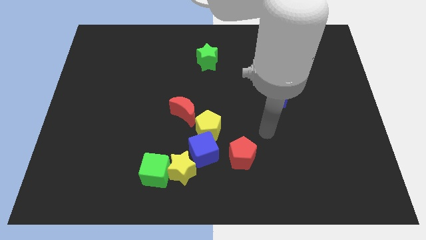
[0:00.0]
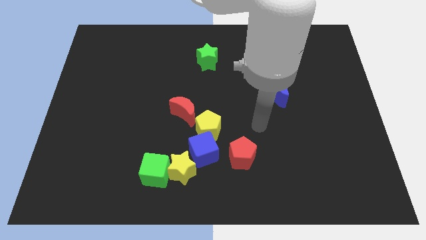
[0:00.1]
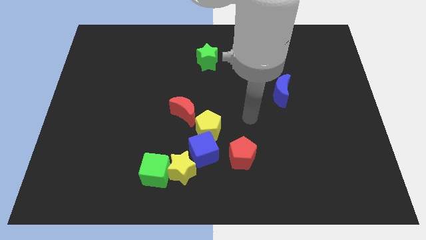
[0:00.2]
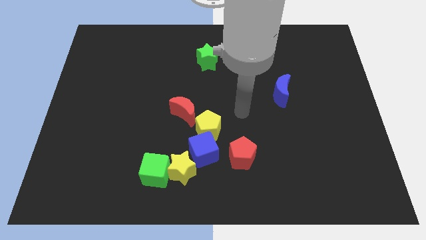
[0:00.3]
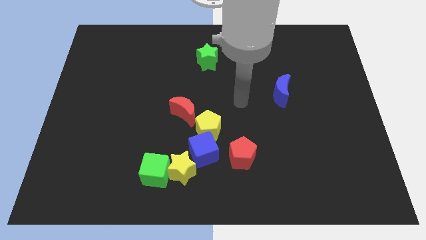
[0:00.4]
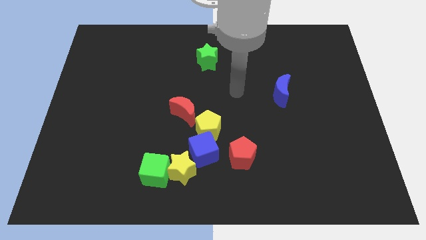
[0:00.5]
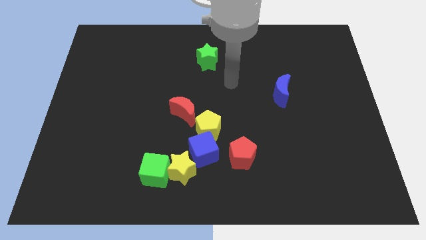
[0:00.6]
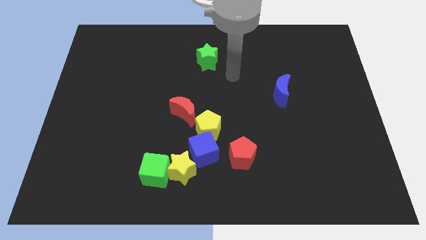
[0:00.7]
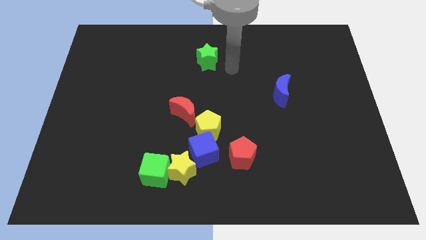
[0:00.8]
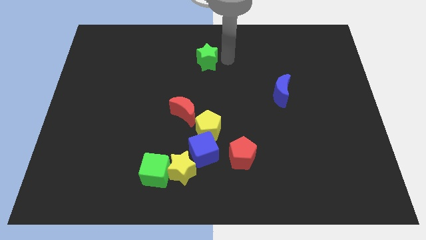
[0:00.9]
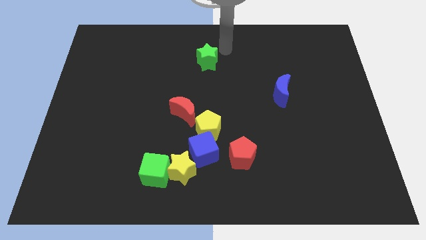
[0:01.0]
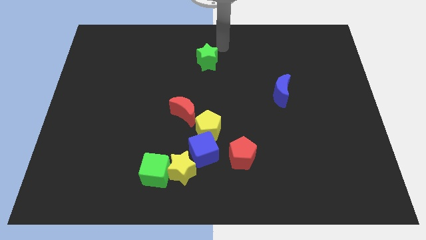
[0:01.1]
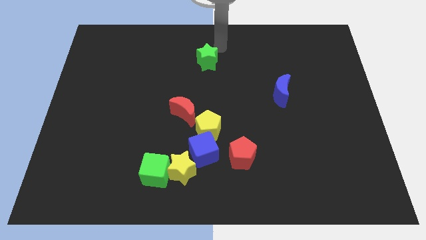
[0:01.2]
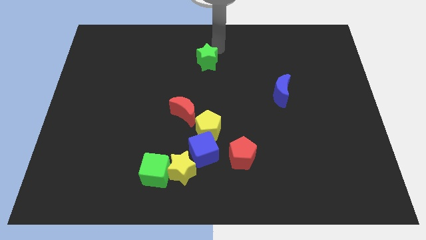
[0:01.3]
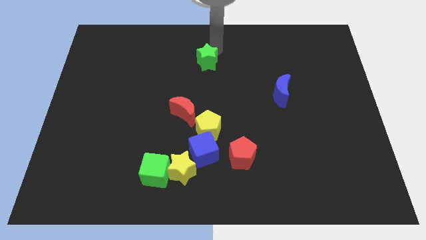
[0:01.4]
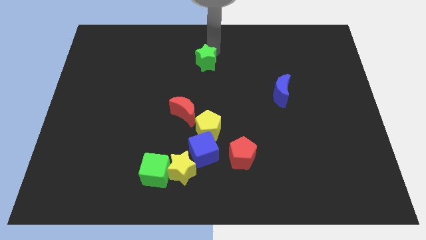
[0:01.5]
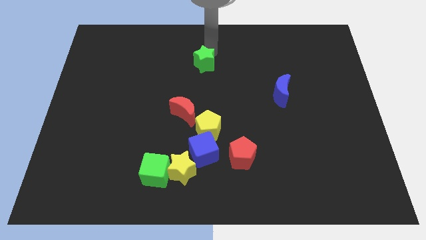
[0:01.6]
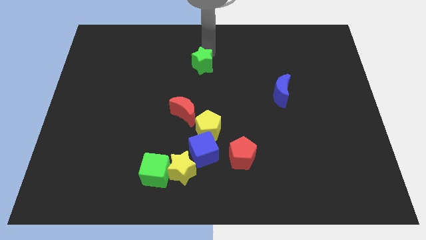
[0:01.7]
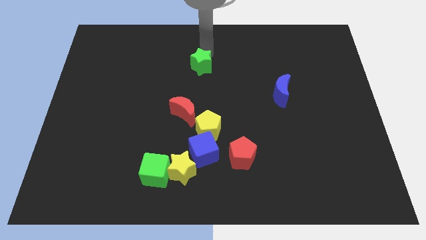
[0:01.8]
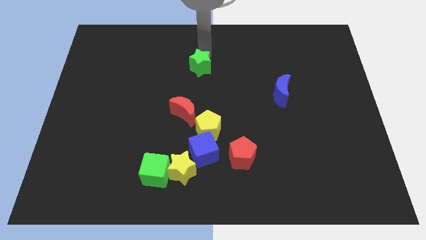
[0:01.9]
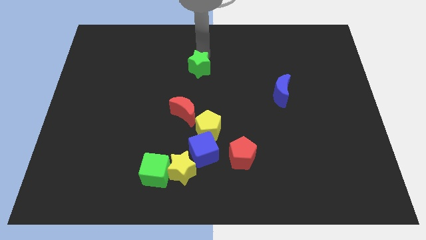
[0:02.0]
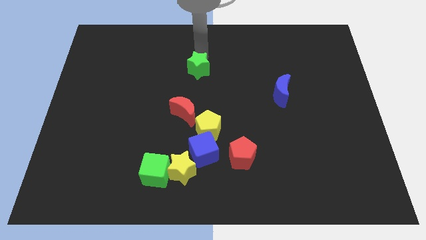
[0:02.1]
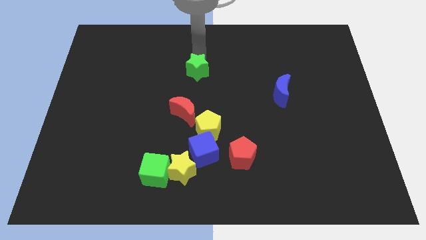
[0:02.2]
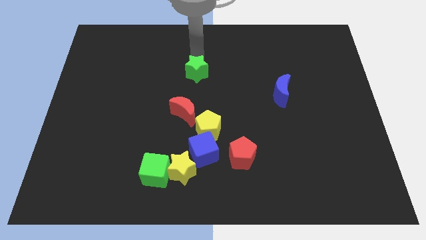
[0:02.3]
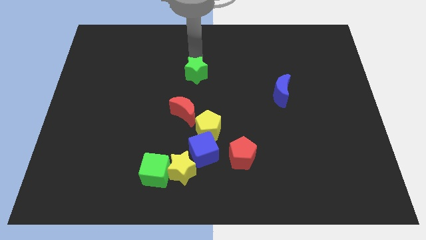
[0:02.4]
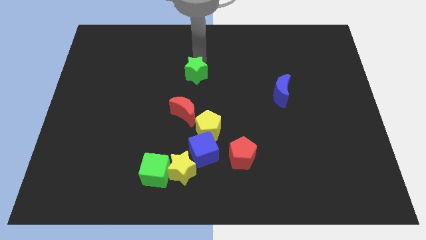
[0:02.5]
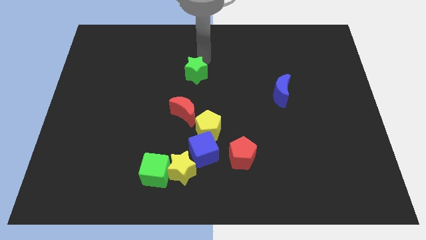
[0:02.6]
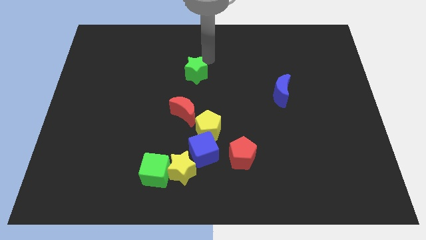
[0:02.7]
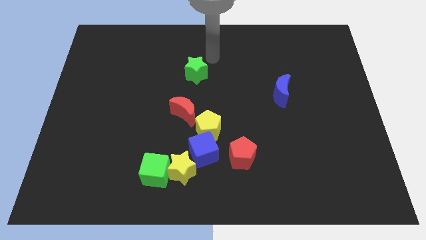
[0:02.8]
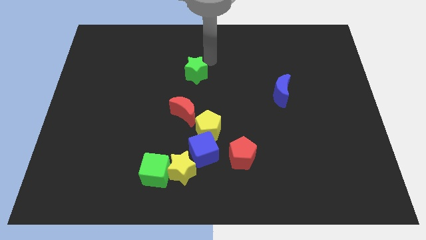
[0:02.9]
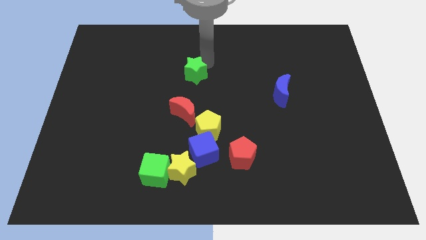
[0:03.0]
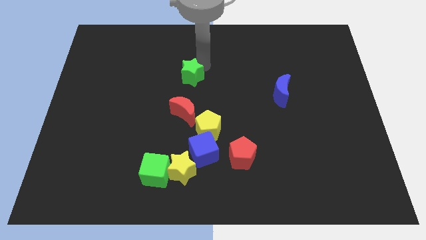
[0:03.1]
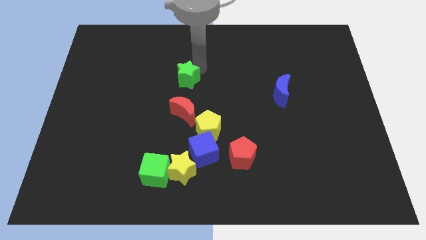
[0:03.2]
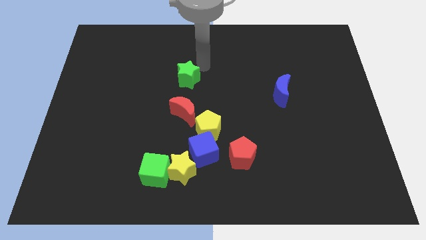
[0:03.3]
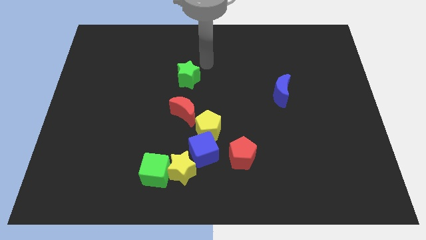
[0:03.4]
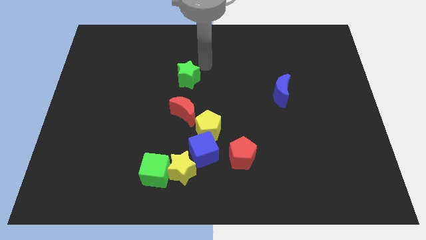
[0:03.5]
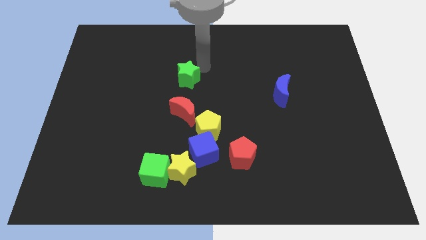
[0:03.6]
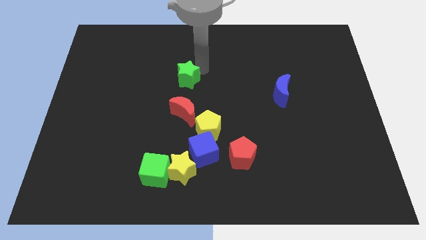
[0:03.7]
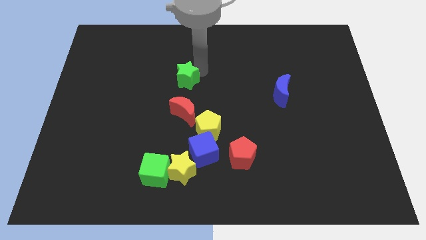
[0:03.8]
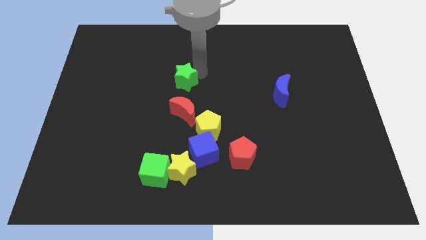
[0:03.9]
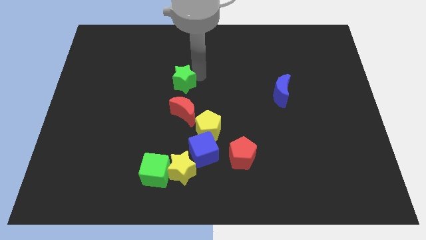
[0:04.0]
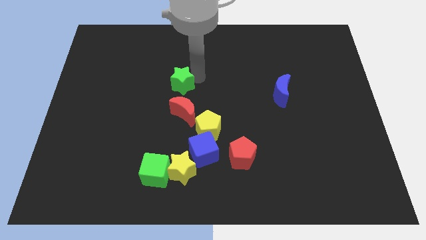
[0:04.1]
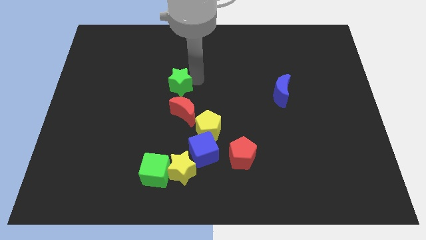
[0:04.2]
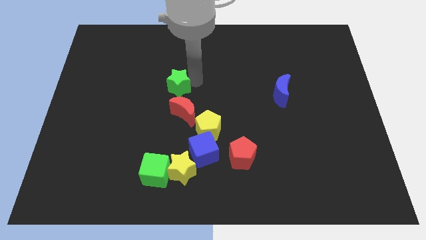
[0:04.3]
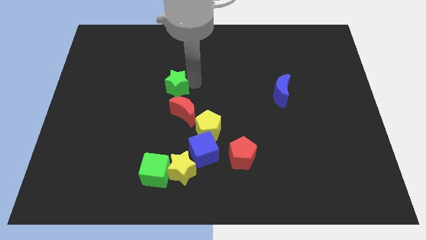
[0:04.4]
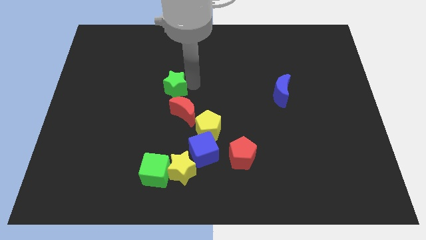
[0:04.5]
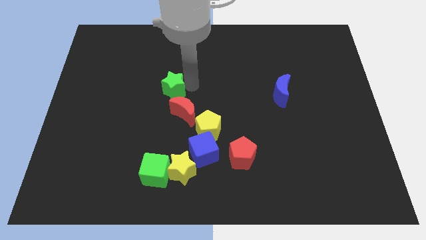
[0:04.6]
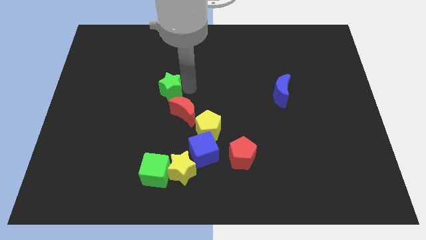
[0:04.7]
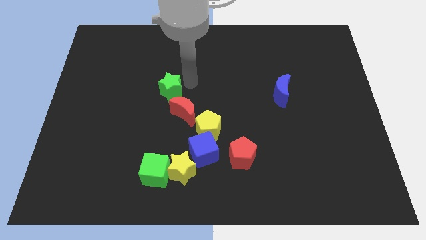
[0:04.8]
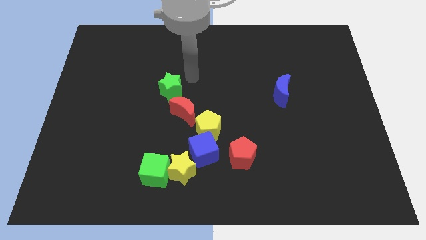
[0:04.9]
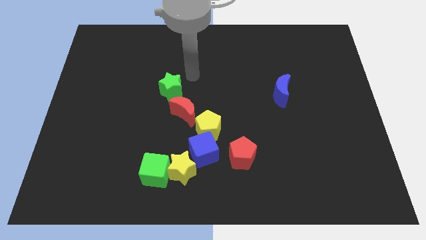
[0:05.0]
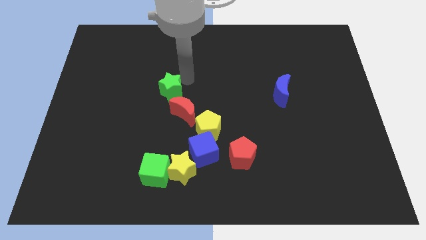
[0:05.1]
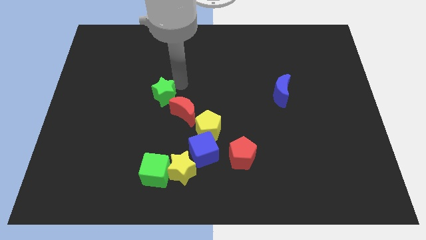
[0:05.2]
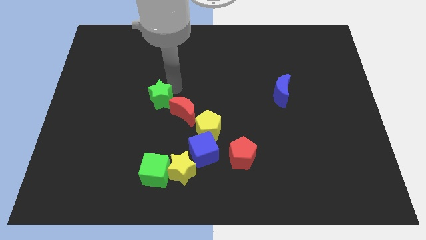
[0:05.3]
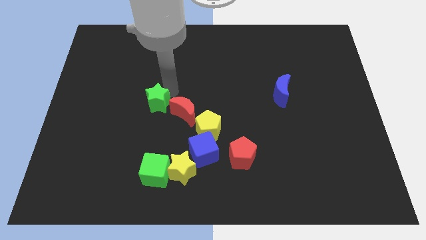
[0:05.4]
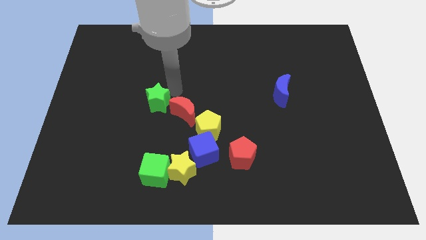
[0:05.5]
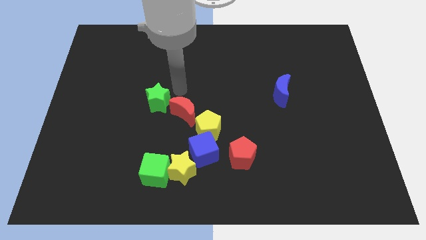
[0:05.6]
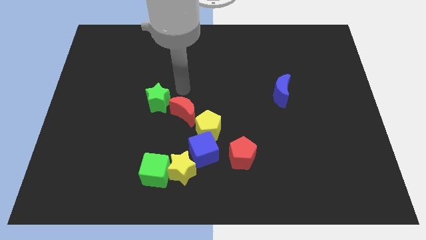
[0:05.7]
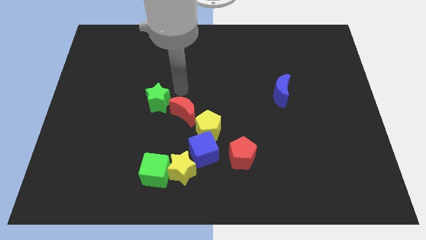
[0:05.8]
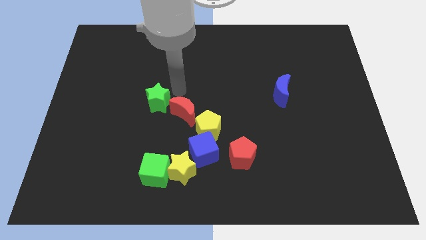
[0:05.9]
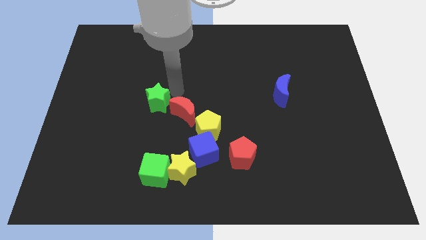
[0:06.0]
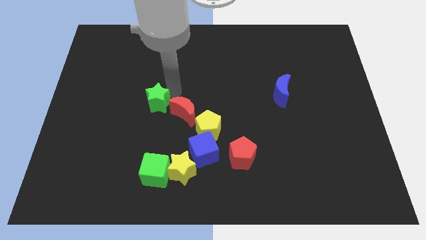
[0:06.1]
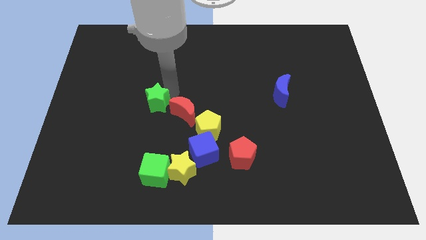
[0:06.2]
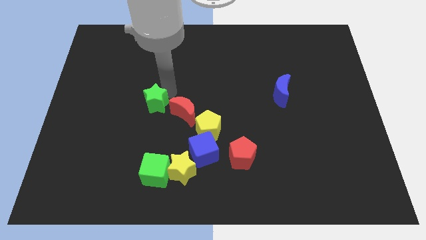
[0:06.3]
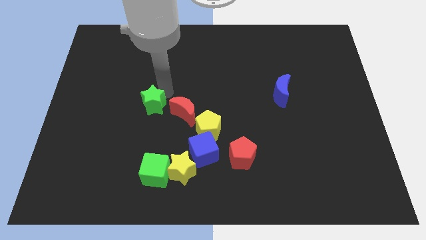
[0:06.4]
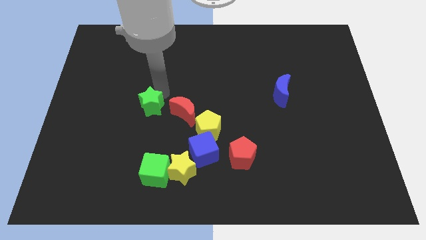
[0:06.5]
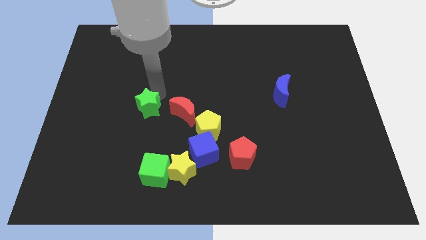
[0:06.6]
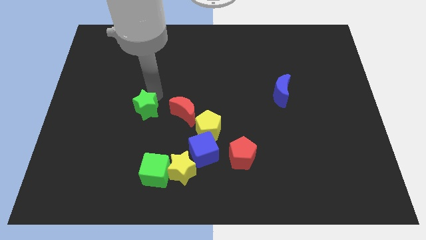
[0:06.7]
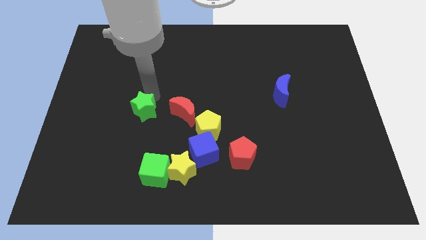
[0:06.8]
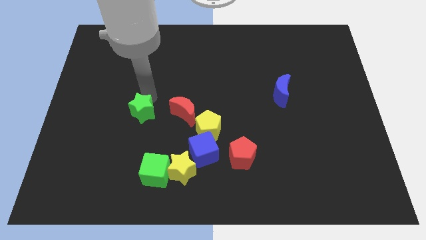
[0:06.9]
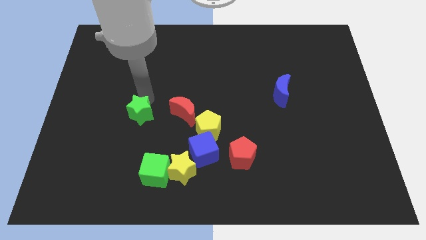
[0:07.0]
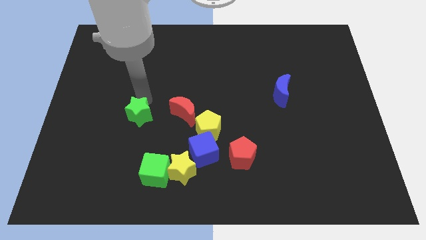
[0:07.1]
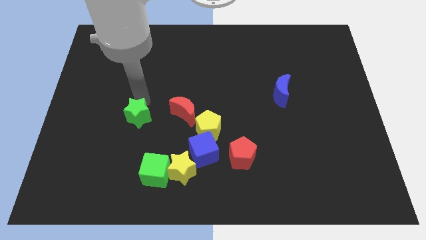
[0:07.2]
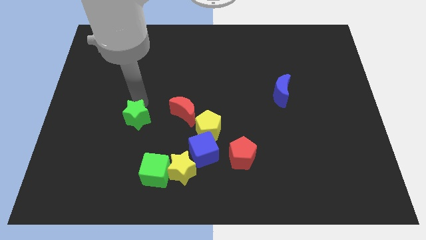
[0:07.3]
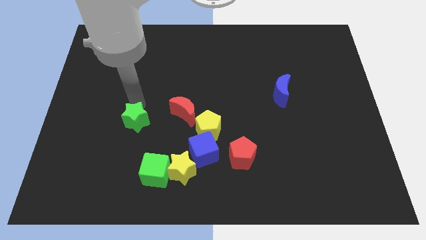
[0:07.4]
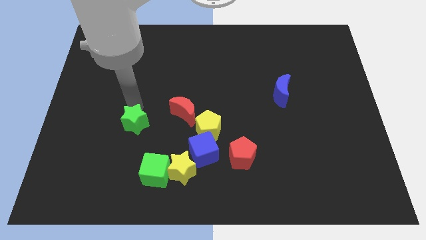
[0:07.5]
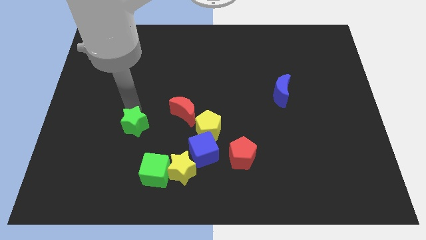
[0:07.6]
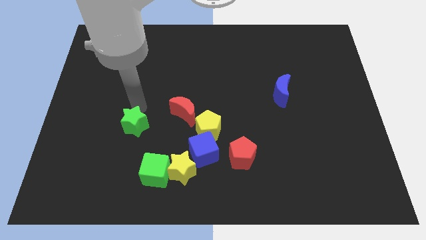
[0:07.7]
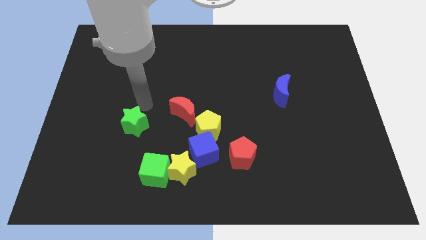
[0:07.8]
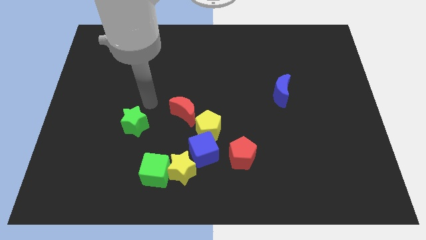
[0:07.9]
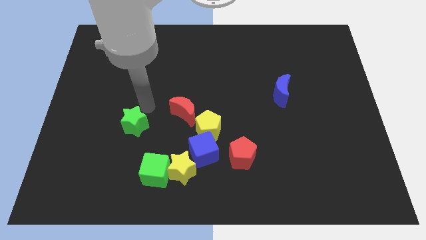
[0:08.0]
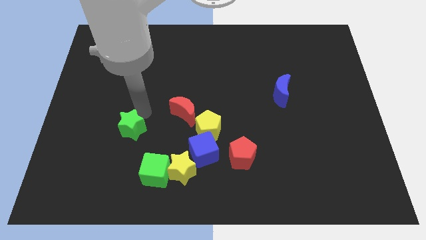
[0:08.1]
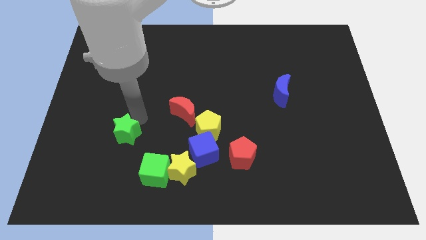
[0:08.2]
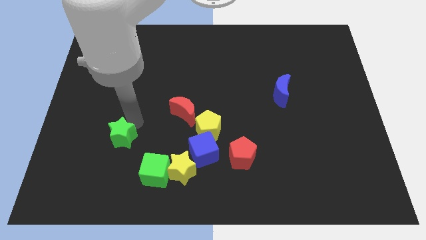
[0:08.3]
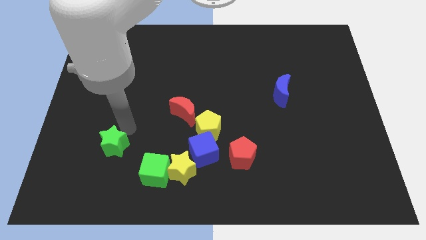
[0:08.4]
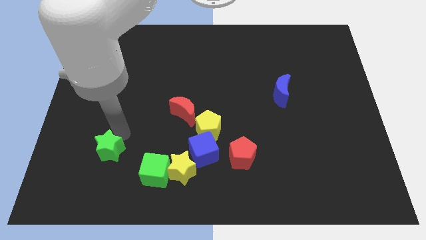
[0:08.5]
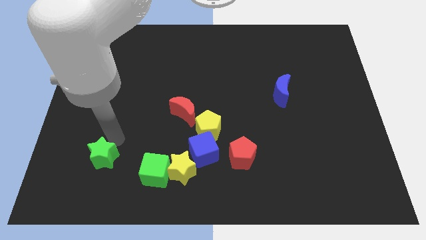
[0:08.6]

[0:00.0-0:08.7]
push the green star to the left side of the green cube
